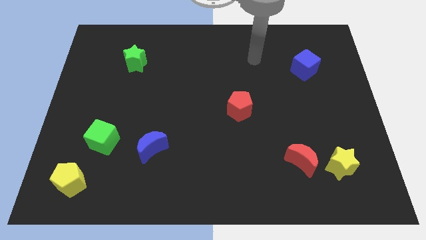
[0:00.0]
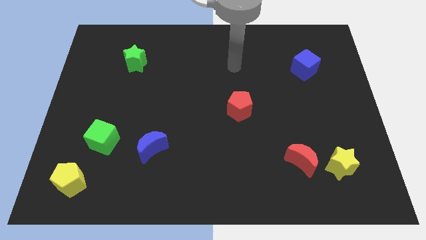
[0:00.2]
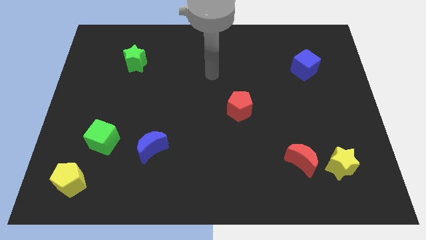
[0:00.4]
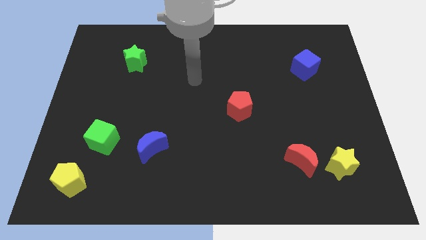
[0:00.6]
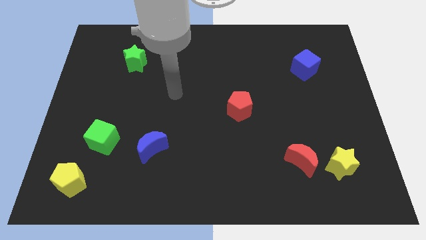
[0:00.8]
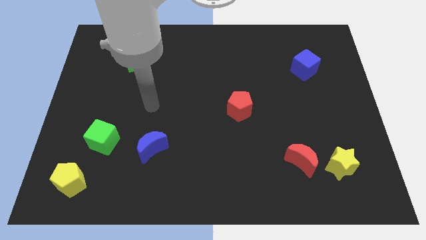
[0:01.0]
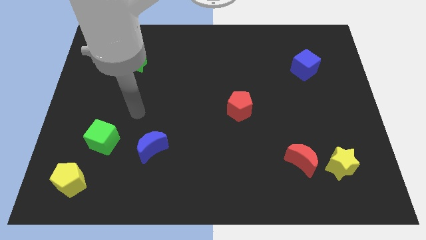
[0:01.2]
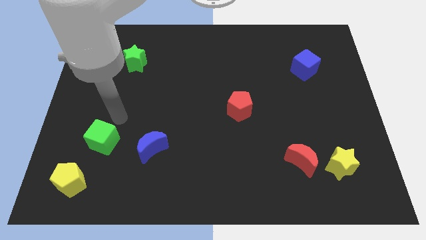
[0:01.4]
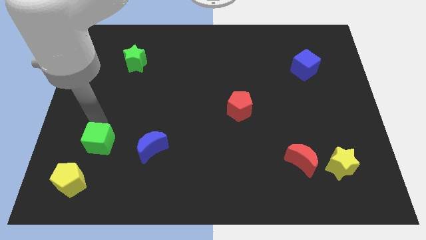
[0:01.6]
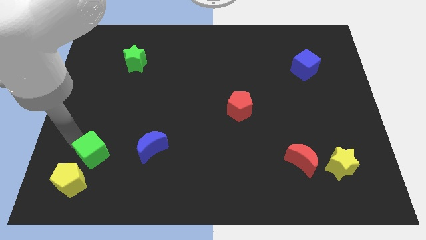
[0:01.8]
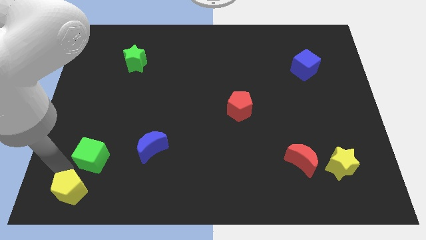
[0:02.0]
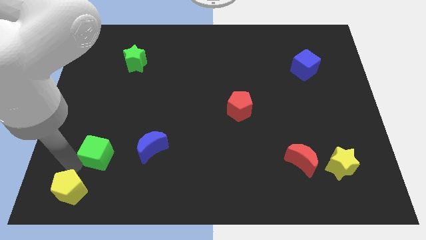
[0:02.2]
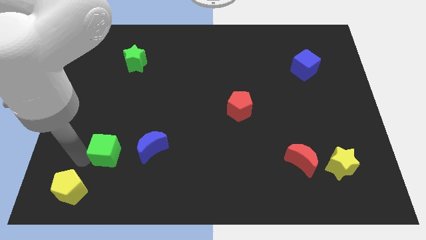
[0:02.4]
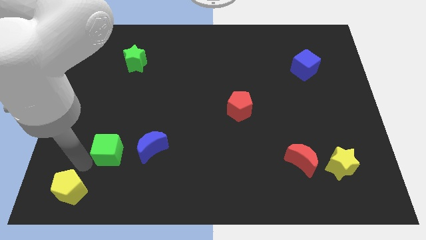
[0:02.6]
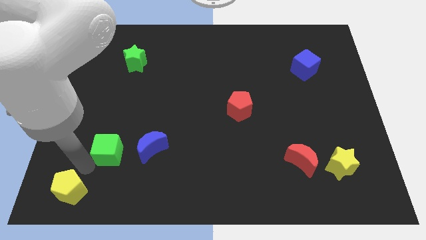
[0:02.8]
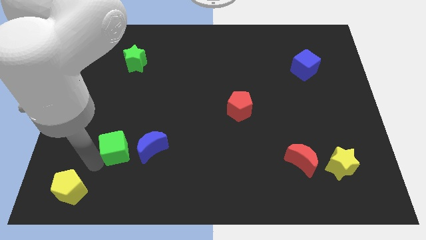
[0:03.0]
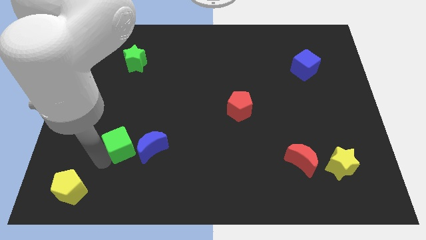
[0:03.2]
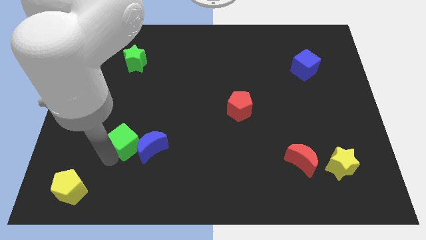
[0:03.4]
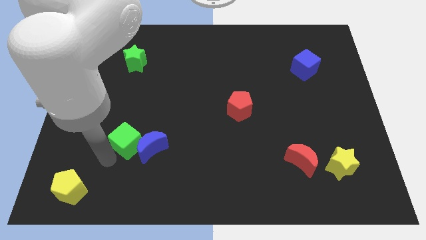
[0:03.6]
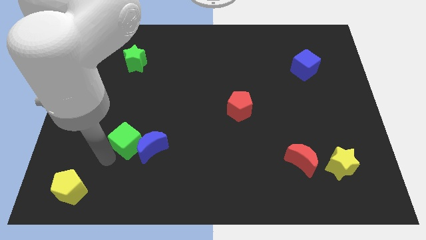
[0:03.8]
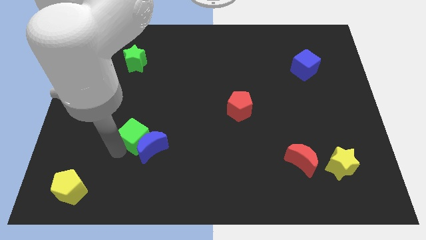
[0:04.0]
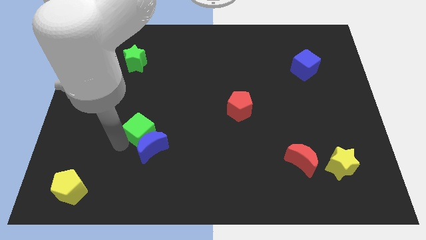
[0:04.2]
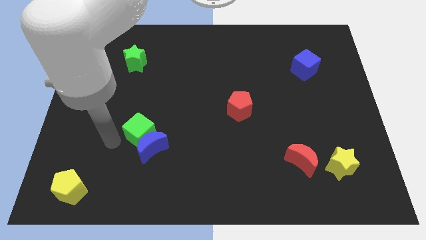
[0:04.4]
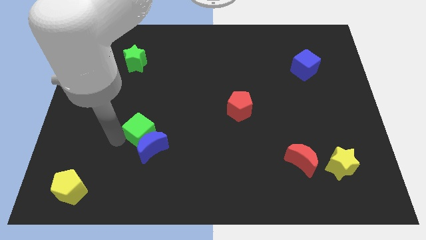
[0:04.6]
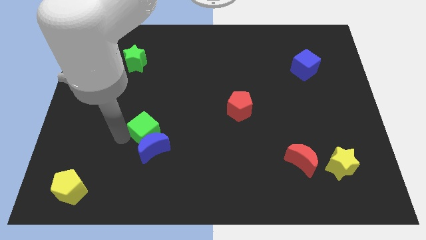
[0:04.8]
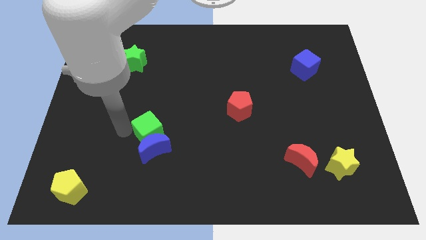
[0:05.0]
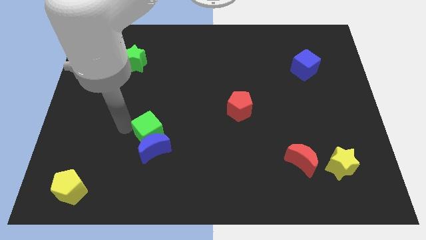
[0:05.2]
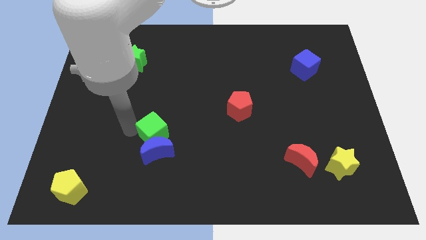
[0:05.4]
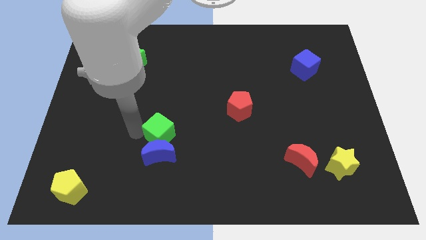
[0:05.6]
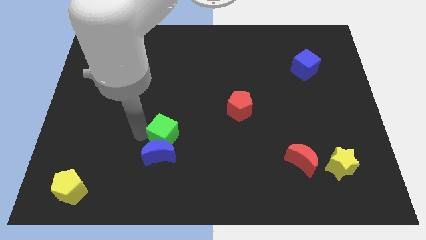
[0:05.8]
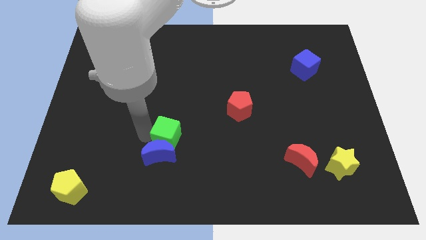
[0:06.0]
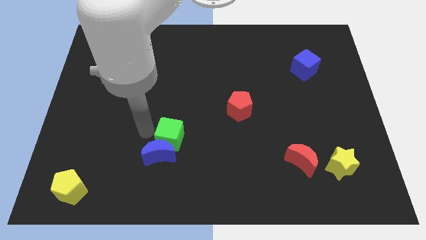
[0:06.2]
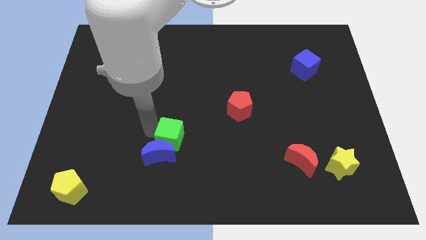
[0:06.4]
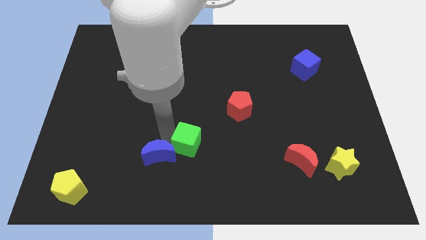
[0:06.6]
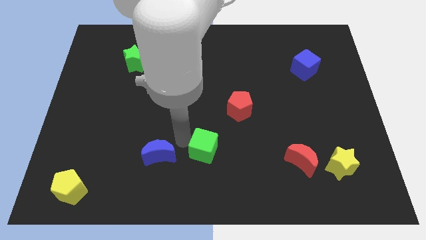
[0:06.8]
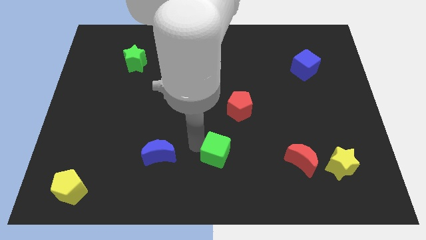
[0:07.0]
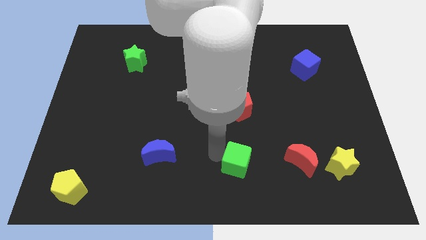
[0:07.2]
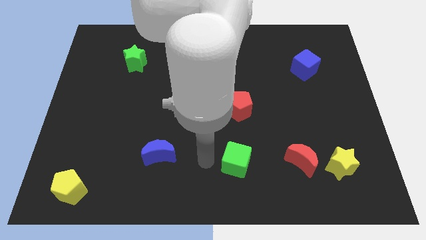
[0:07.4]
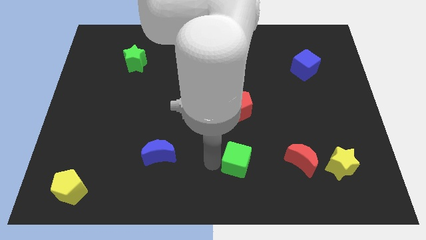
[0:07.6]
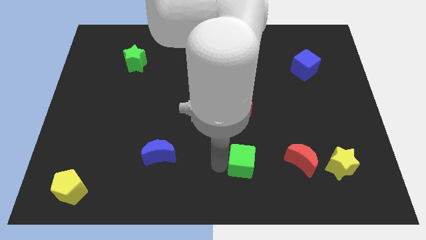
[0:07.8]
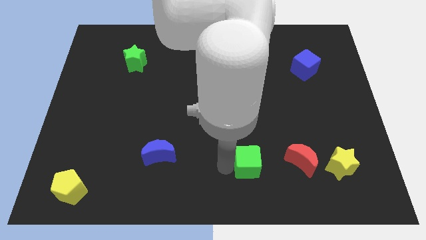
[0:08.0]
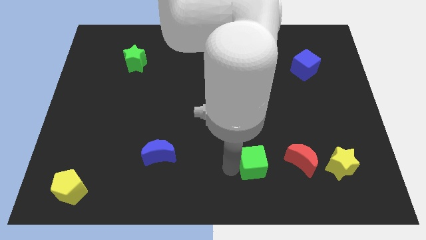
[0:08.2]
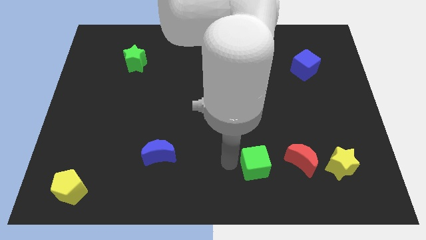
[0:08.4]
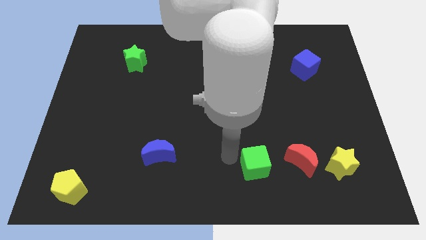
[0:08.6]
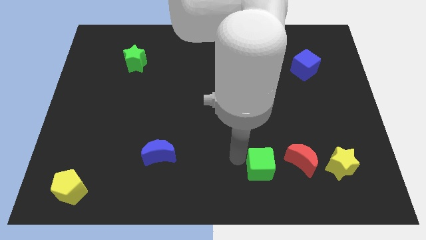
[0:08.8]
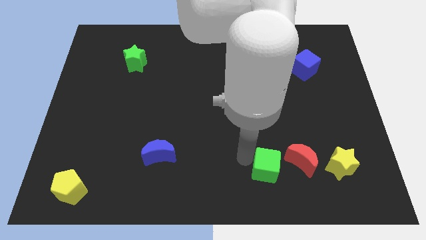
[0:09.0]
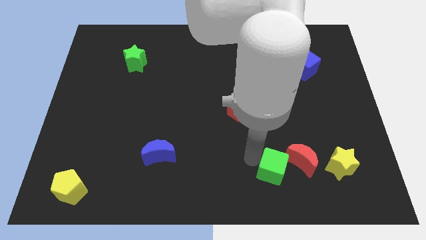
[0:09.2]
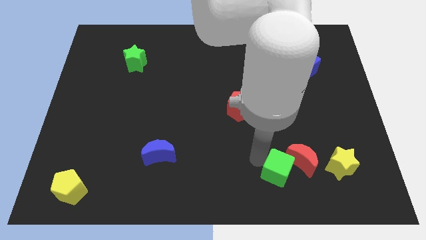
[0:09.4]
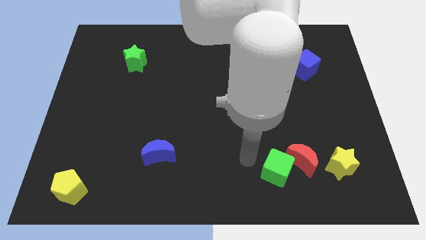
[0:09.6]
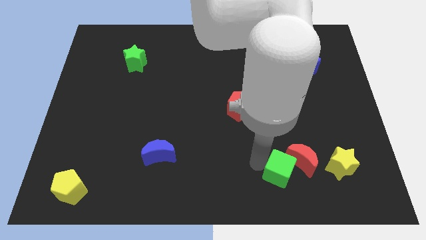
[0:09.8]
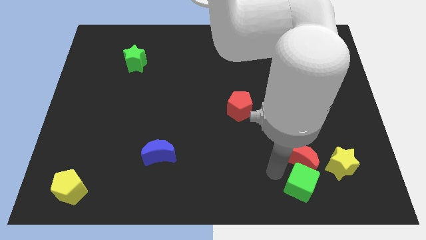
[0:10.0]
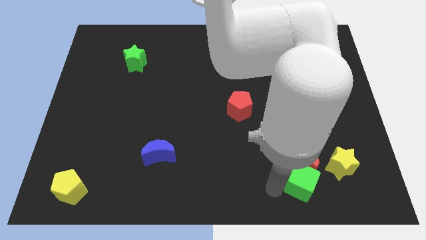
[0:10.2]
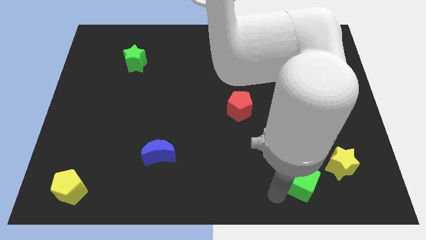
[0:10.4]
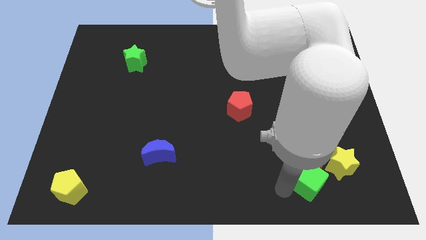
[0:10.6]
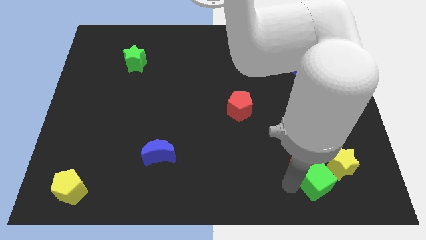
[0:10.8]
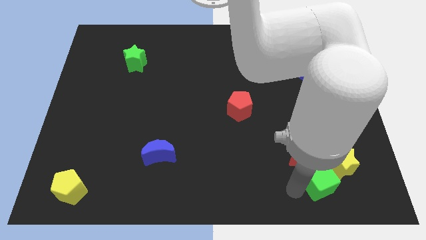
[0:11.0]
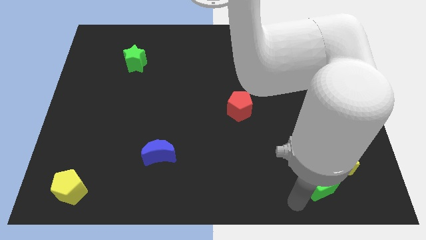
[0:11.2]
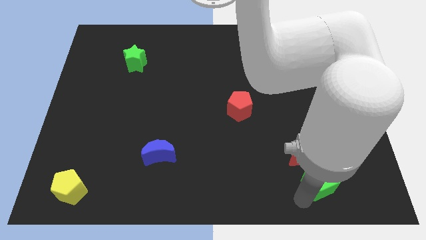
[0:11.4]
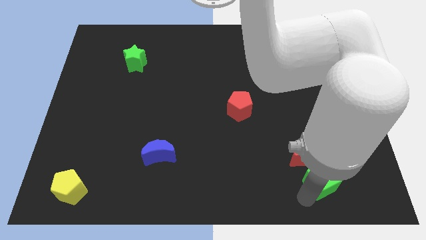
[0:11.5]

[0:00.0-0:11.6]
push the green cube next to the yellow star

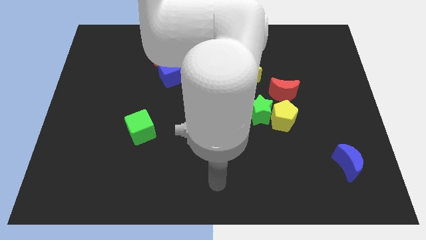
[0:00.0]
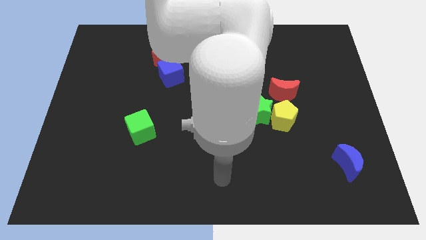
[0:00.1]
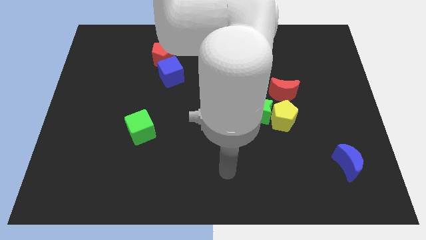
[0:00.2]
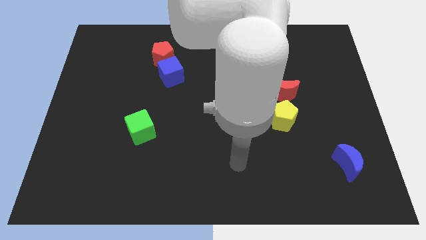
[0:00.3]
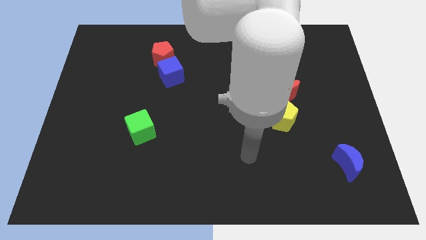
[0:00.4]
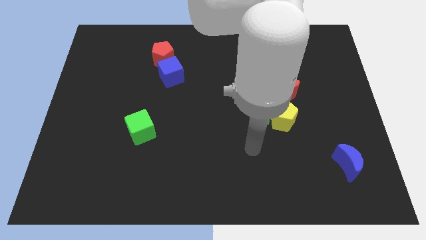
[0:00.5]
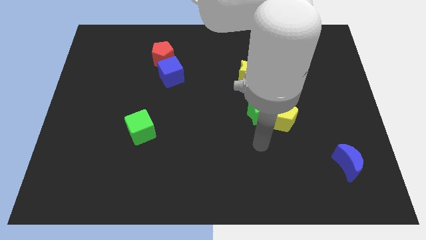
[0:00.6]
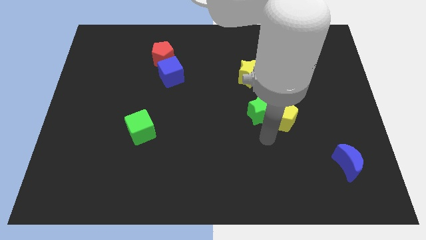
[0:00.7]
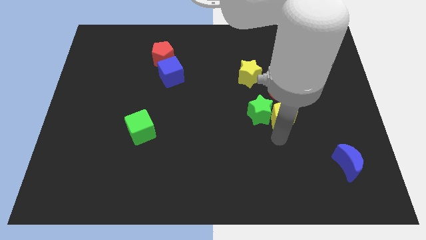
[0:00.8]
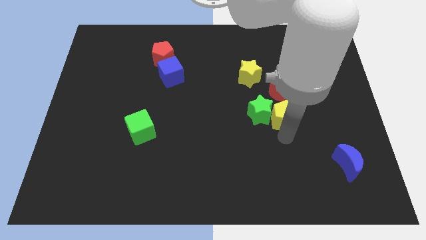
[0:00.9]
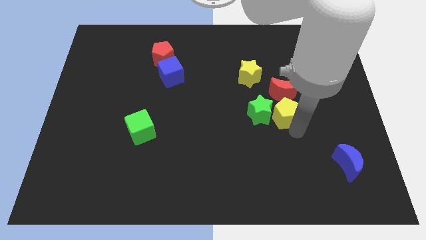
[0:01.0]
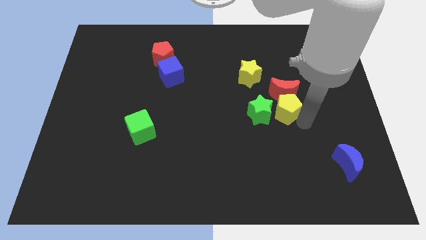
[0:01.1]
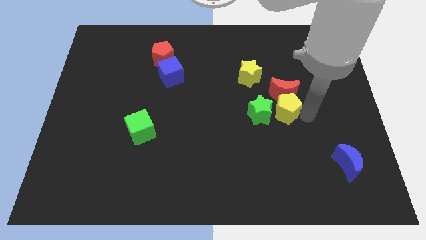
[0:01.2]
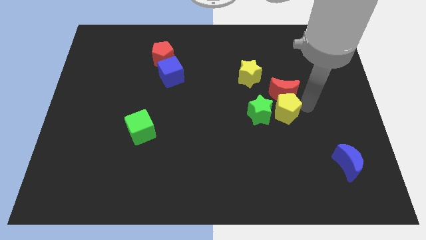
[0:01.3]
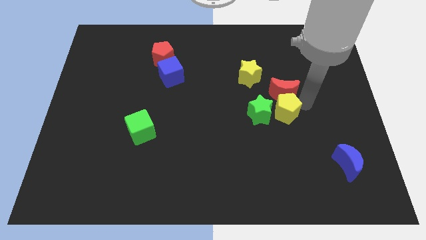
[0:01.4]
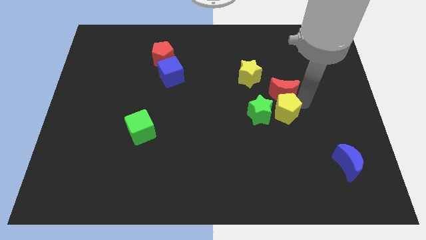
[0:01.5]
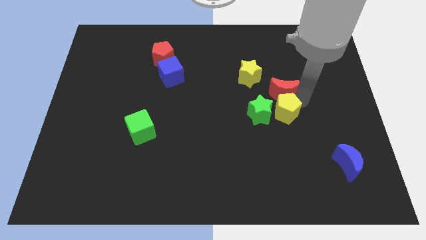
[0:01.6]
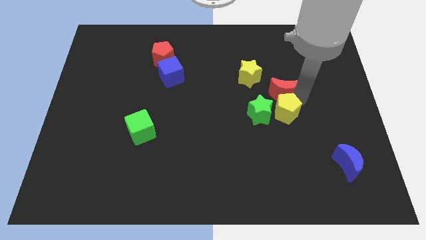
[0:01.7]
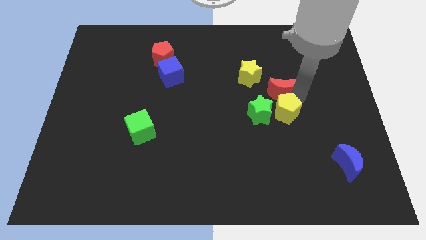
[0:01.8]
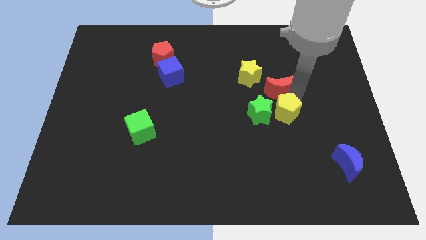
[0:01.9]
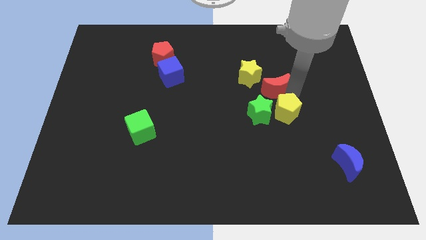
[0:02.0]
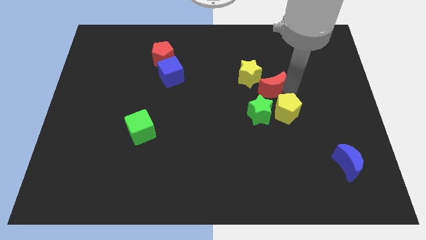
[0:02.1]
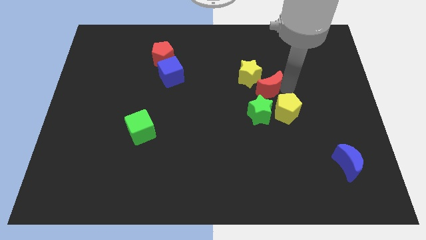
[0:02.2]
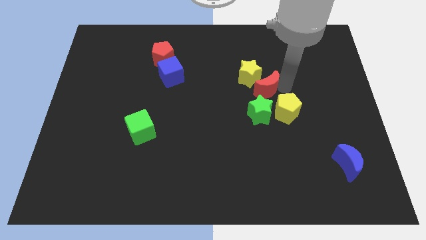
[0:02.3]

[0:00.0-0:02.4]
move the red moon towards the yellow star
